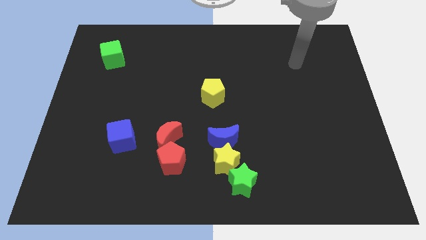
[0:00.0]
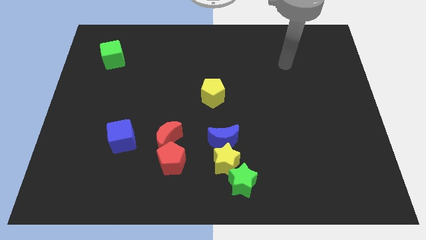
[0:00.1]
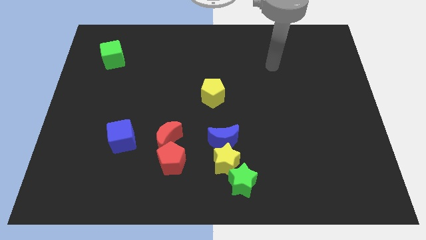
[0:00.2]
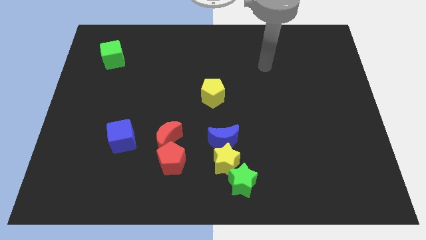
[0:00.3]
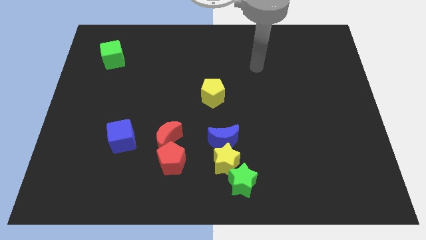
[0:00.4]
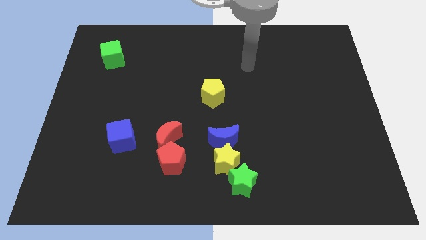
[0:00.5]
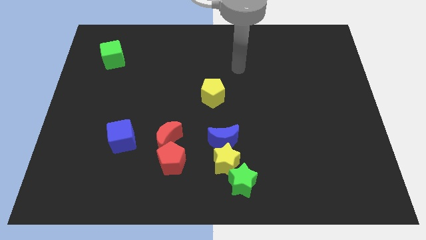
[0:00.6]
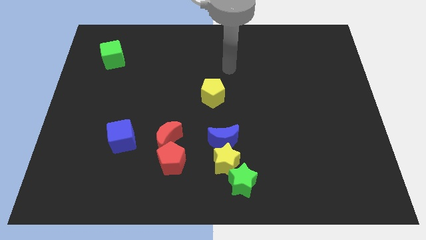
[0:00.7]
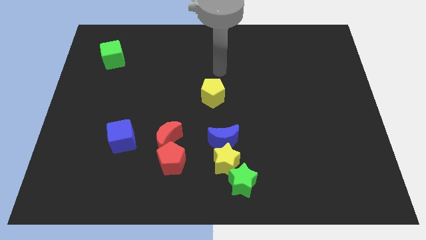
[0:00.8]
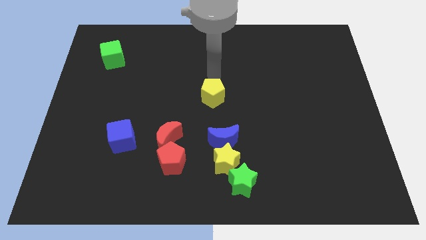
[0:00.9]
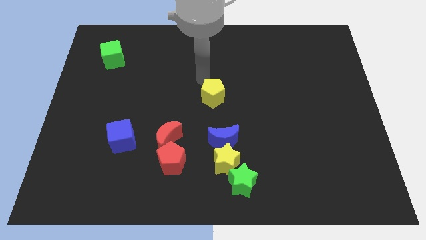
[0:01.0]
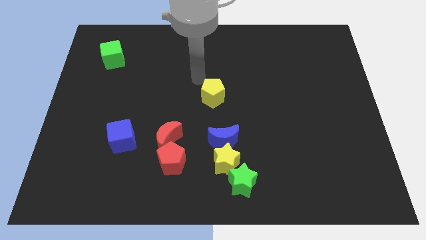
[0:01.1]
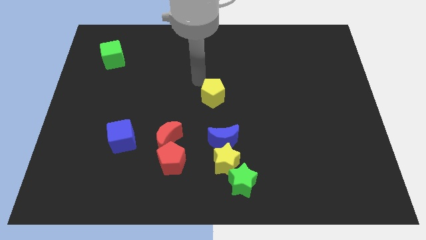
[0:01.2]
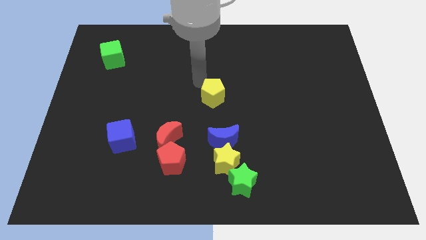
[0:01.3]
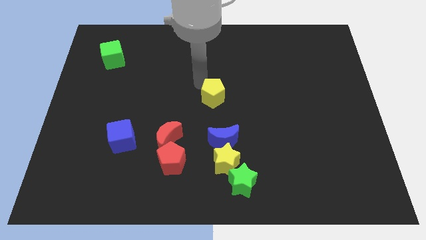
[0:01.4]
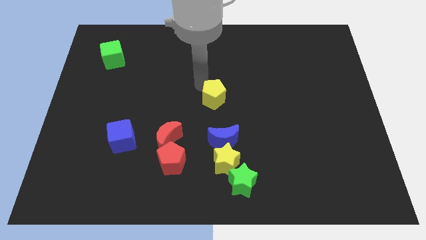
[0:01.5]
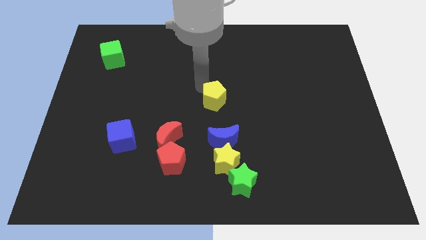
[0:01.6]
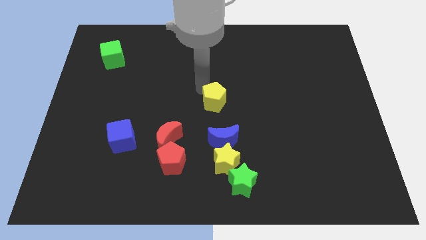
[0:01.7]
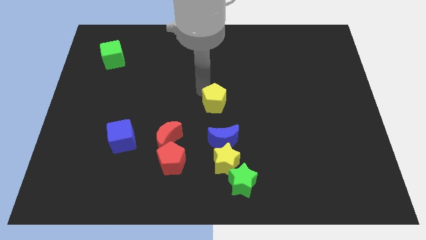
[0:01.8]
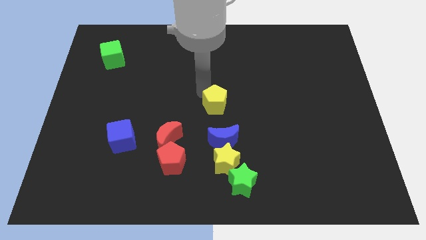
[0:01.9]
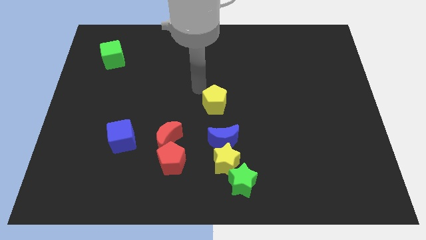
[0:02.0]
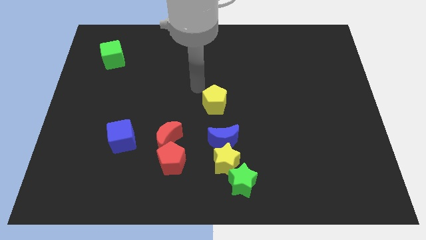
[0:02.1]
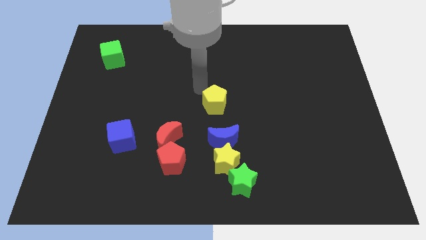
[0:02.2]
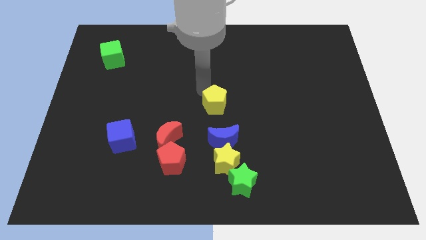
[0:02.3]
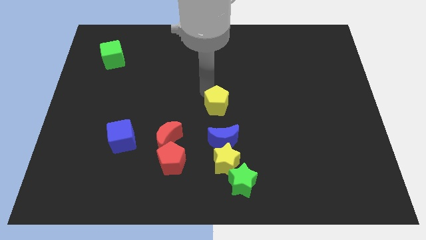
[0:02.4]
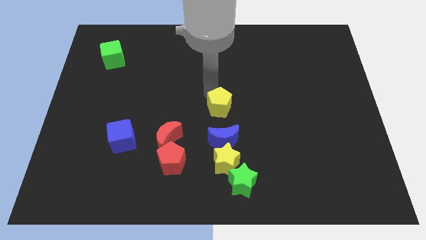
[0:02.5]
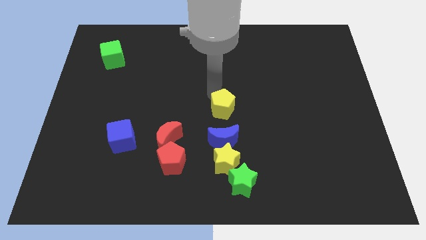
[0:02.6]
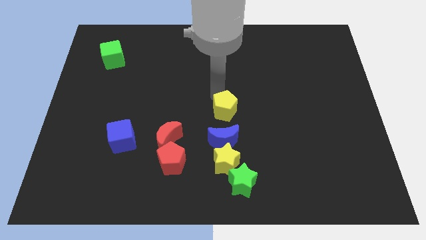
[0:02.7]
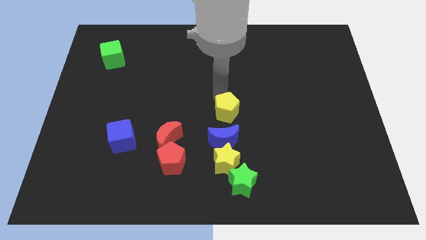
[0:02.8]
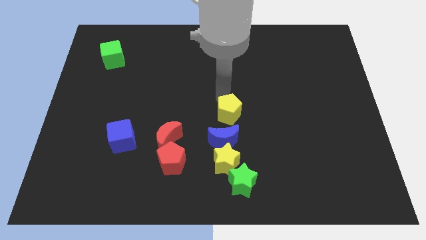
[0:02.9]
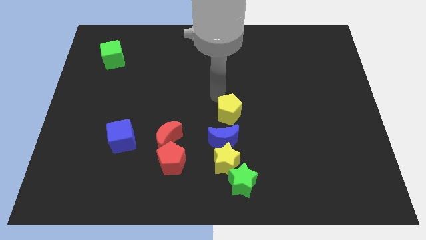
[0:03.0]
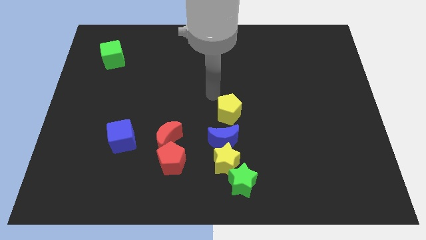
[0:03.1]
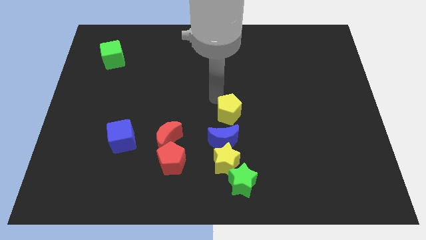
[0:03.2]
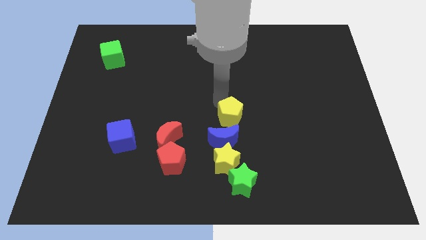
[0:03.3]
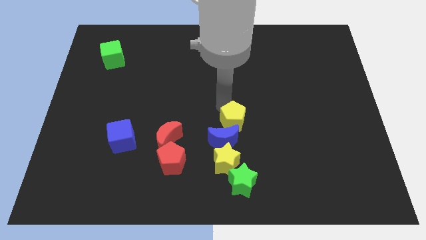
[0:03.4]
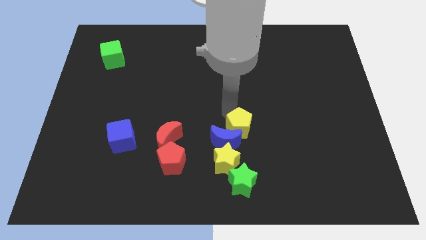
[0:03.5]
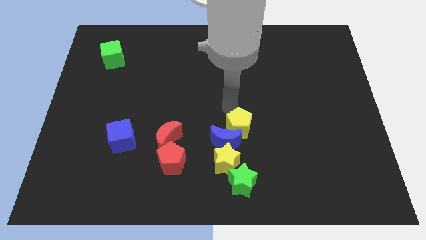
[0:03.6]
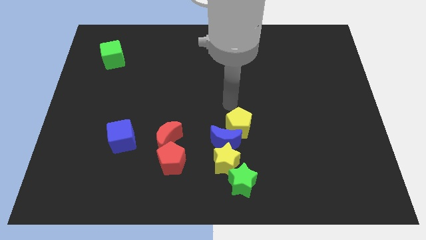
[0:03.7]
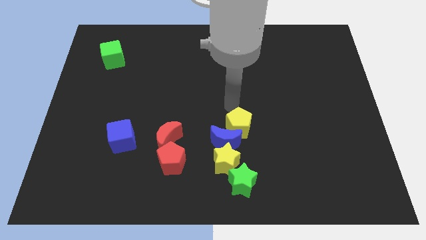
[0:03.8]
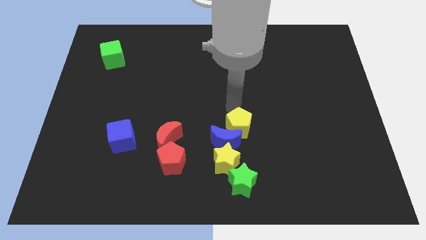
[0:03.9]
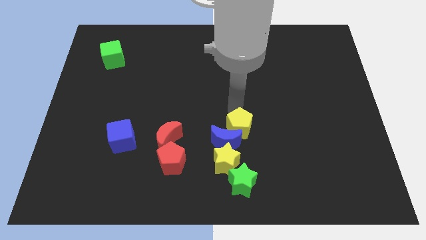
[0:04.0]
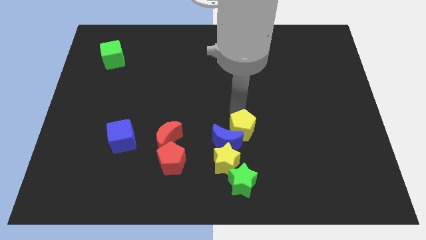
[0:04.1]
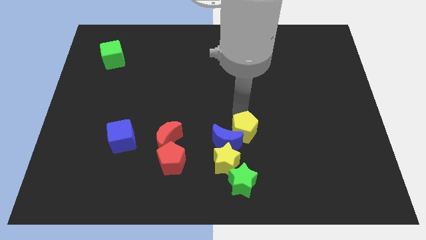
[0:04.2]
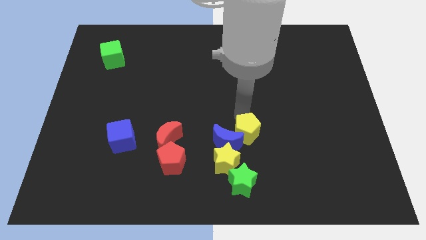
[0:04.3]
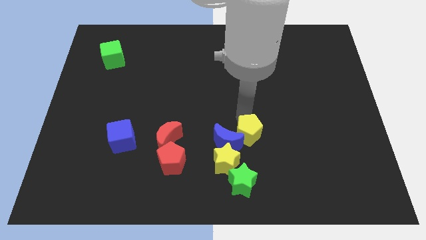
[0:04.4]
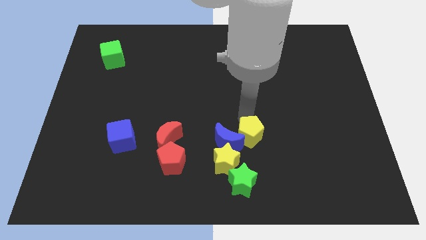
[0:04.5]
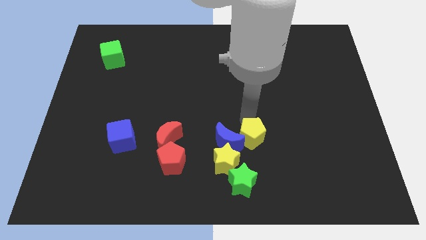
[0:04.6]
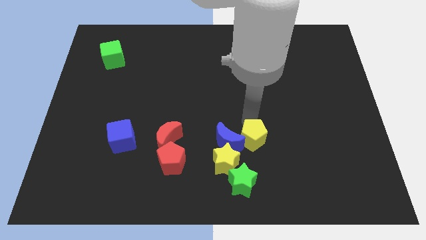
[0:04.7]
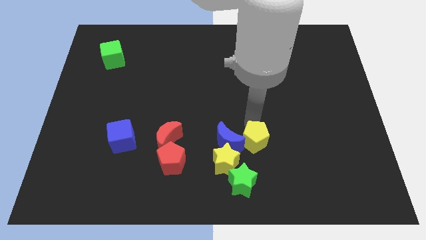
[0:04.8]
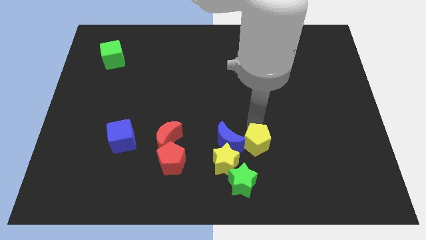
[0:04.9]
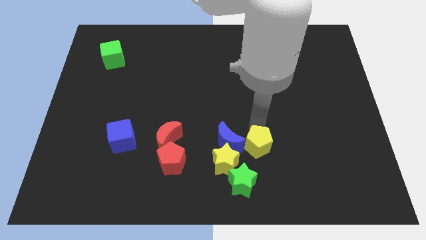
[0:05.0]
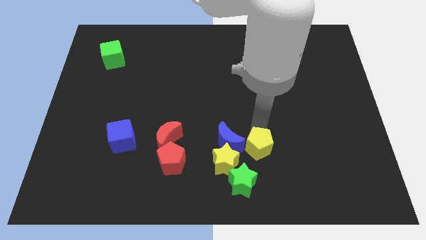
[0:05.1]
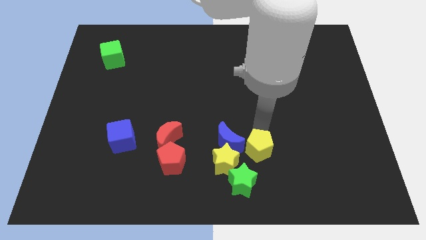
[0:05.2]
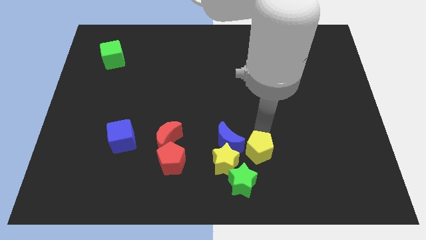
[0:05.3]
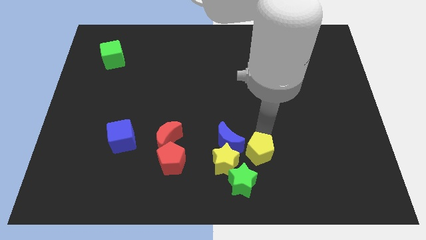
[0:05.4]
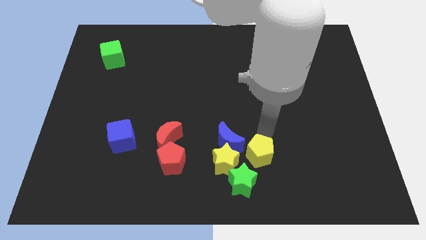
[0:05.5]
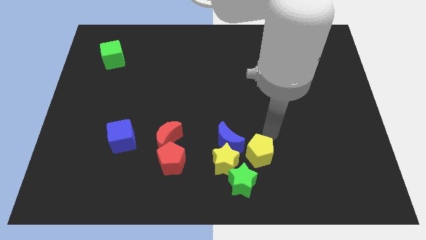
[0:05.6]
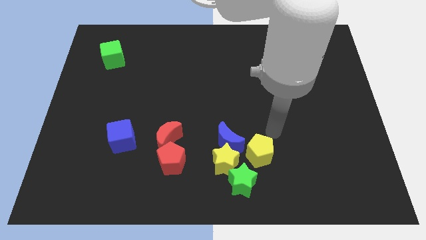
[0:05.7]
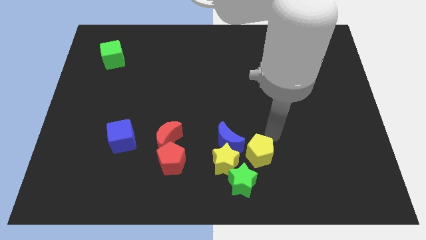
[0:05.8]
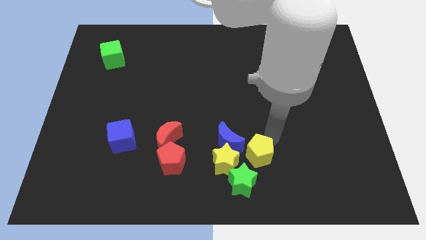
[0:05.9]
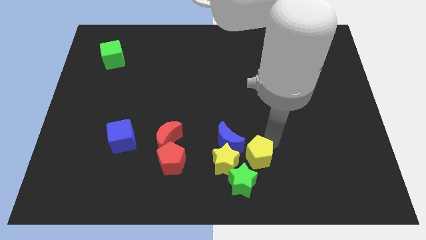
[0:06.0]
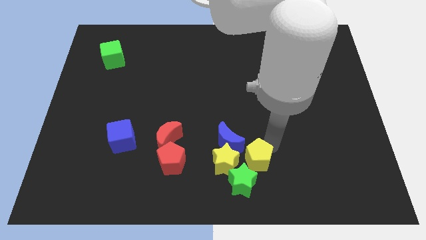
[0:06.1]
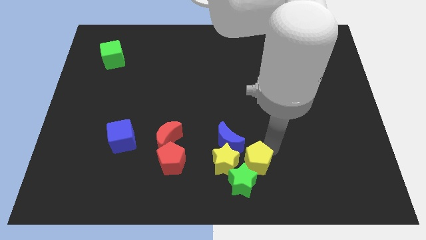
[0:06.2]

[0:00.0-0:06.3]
put the yellow pentagon to the green star

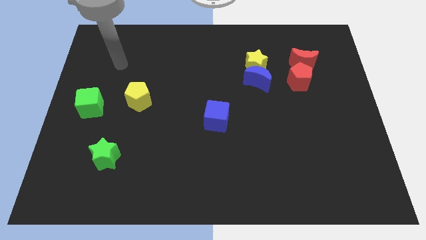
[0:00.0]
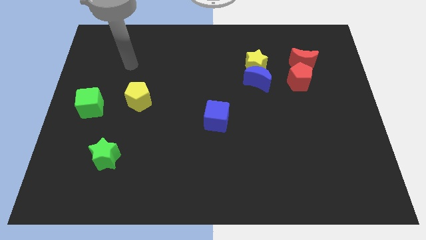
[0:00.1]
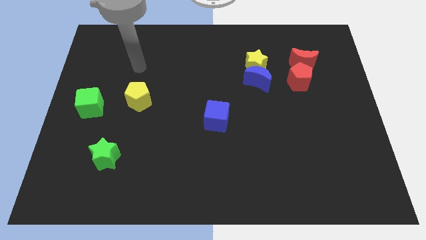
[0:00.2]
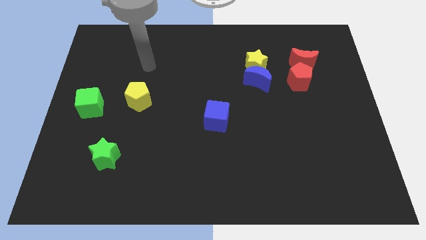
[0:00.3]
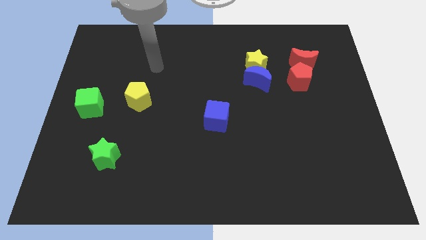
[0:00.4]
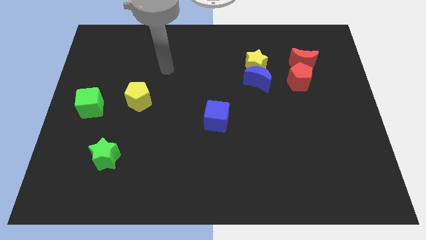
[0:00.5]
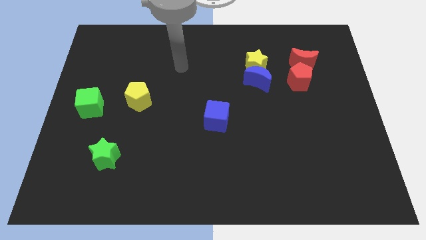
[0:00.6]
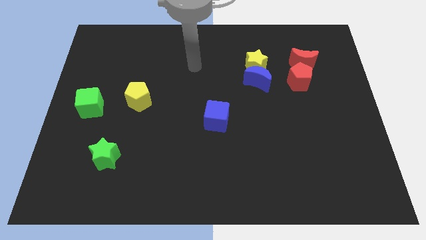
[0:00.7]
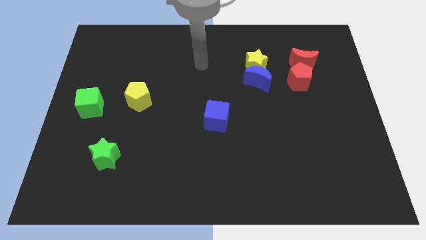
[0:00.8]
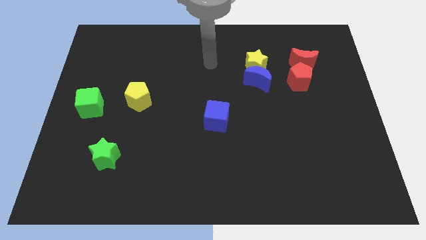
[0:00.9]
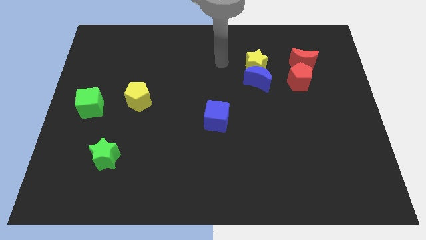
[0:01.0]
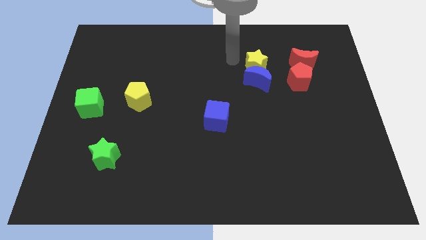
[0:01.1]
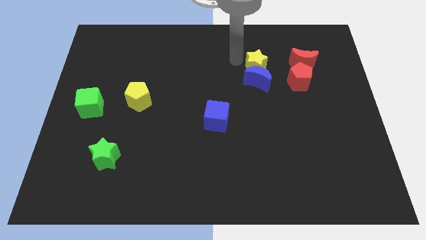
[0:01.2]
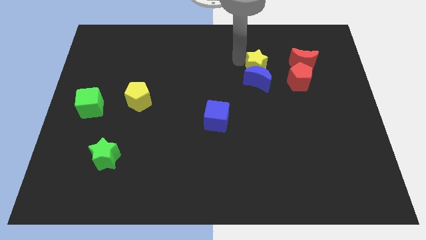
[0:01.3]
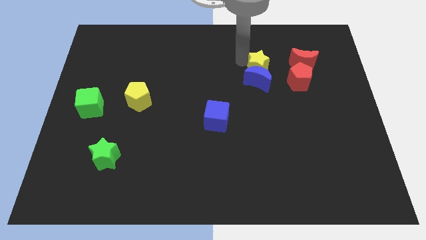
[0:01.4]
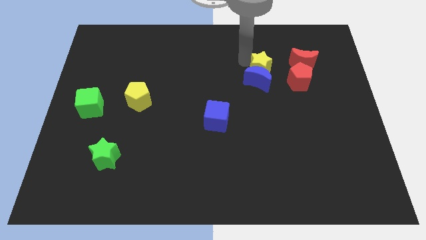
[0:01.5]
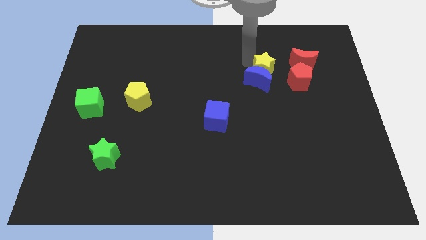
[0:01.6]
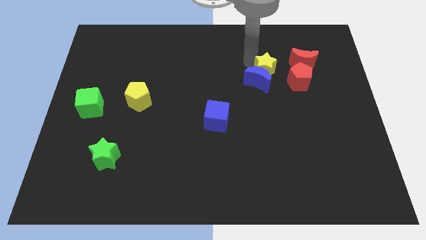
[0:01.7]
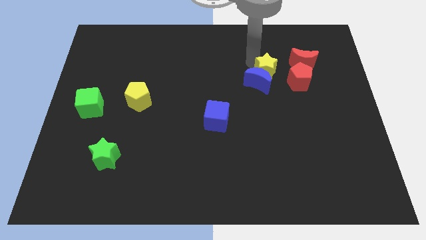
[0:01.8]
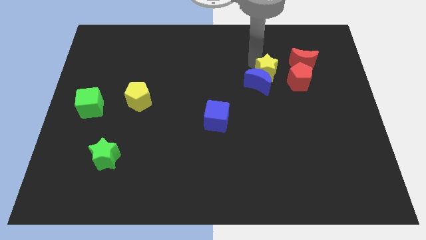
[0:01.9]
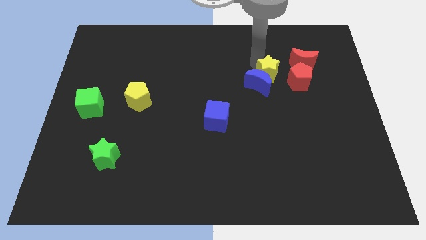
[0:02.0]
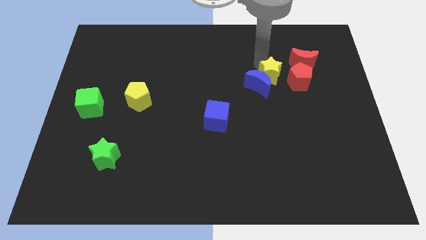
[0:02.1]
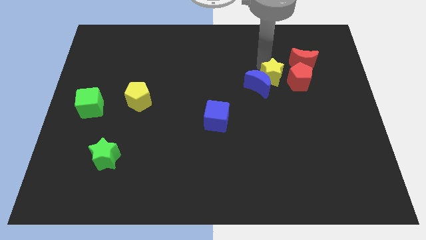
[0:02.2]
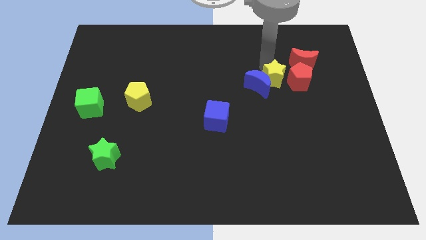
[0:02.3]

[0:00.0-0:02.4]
push the yellow star to the red pentagon
